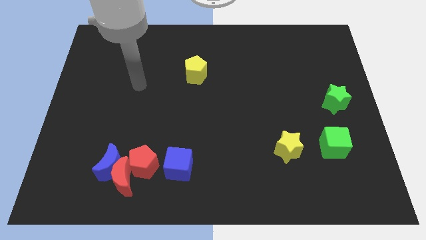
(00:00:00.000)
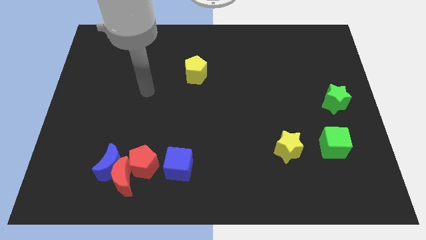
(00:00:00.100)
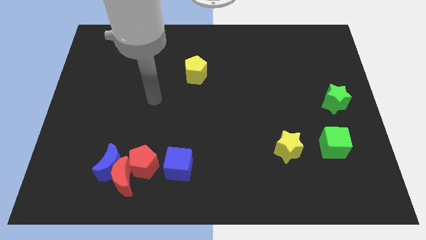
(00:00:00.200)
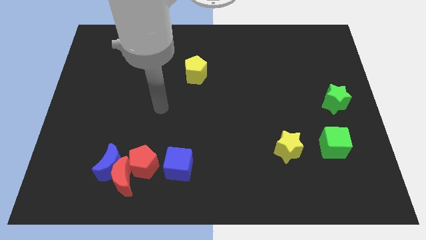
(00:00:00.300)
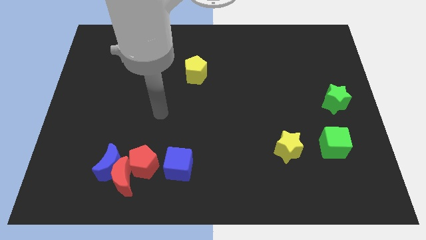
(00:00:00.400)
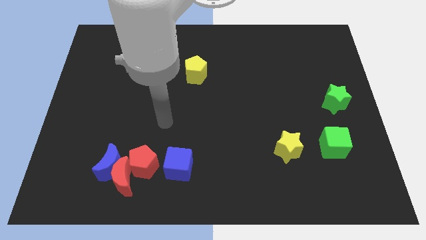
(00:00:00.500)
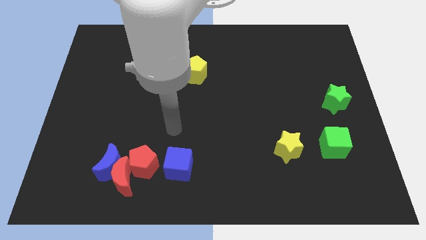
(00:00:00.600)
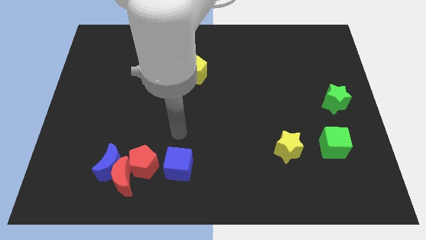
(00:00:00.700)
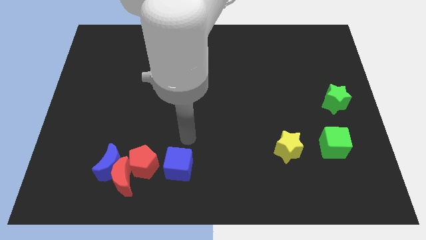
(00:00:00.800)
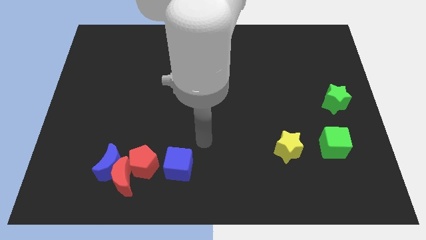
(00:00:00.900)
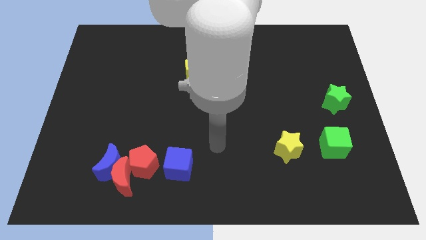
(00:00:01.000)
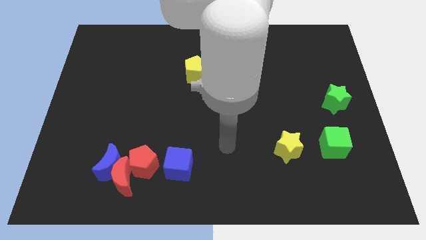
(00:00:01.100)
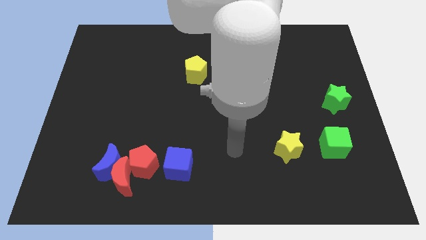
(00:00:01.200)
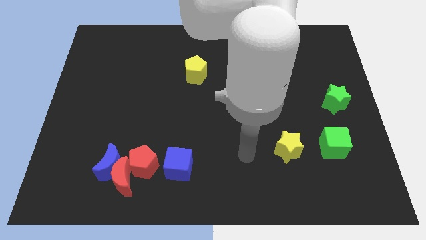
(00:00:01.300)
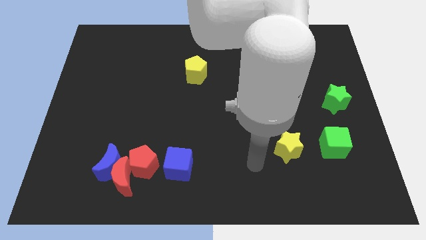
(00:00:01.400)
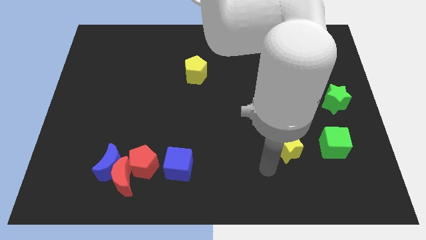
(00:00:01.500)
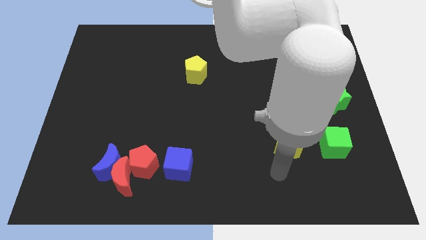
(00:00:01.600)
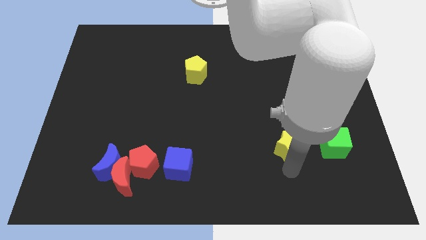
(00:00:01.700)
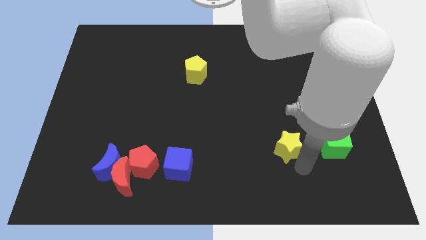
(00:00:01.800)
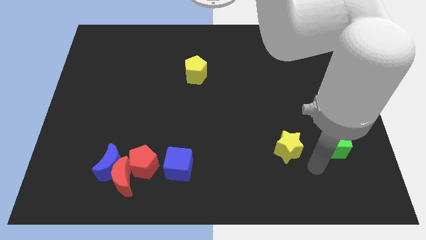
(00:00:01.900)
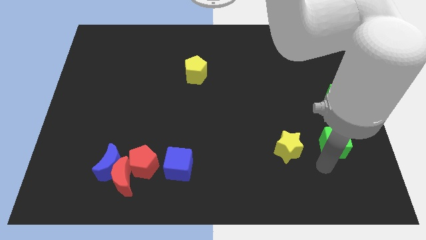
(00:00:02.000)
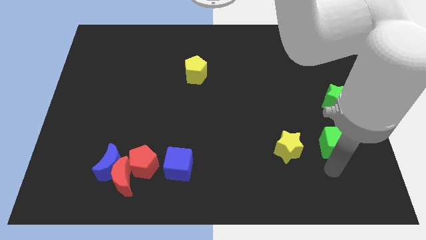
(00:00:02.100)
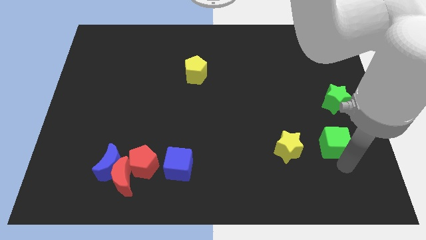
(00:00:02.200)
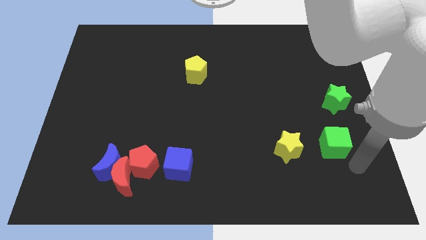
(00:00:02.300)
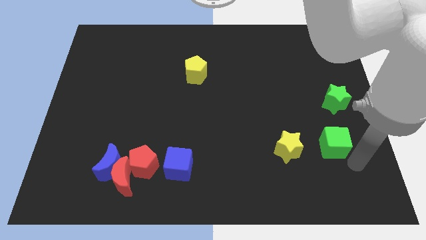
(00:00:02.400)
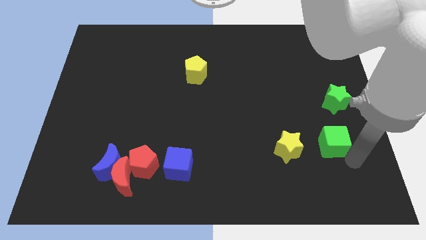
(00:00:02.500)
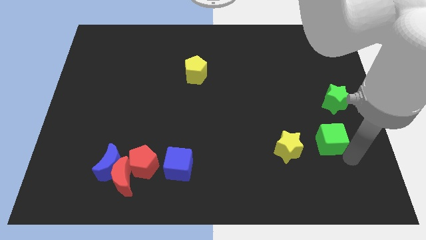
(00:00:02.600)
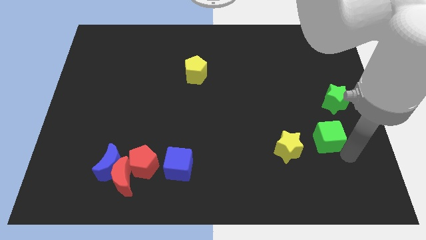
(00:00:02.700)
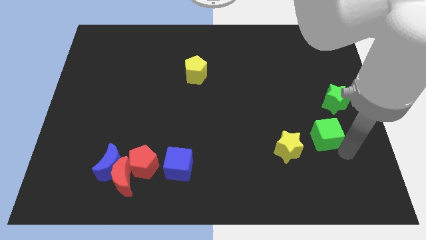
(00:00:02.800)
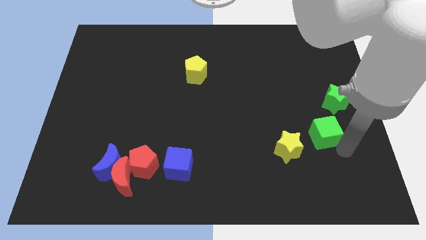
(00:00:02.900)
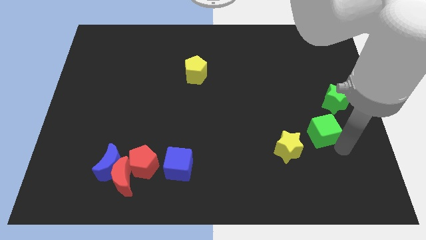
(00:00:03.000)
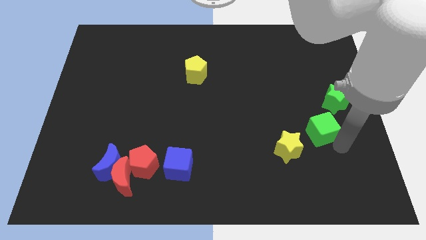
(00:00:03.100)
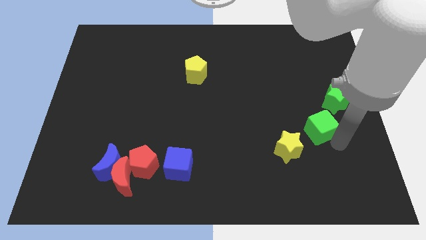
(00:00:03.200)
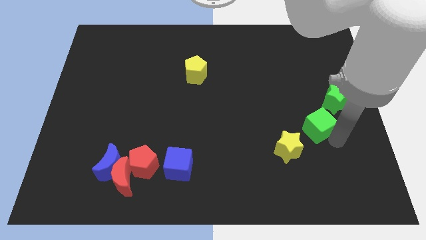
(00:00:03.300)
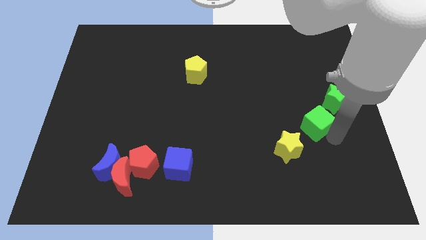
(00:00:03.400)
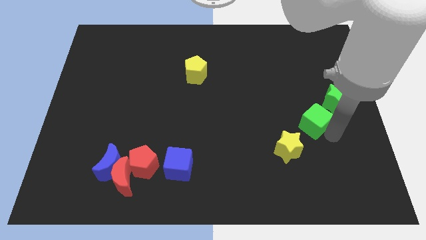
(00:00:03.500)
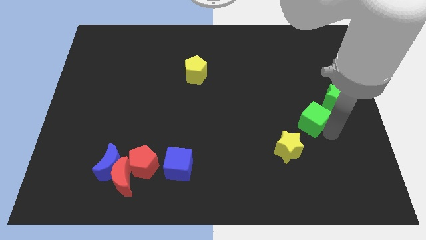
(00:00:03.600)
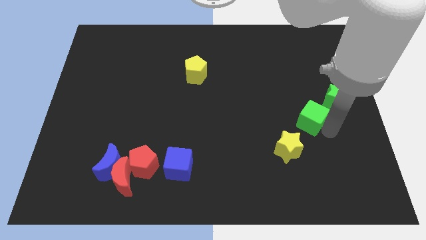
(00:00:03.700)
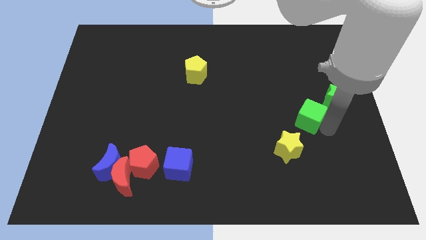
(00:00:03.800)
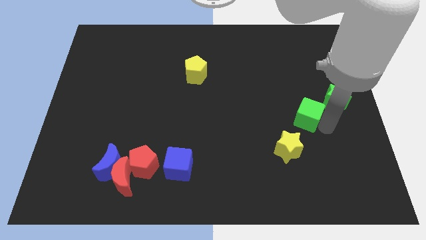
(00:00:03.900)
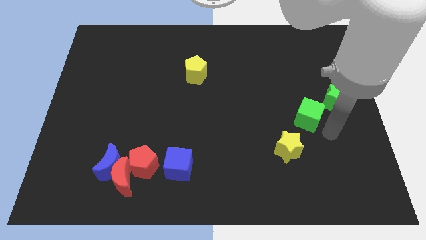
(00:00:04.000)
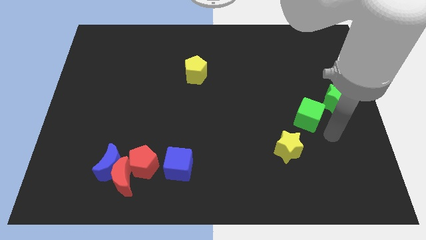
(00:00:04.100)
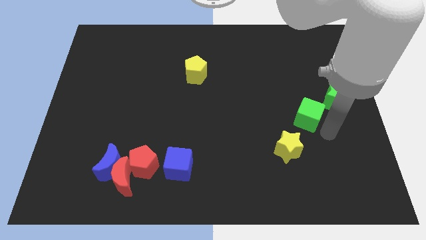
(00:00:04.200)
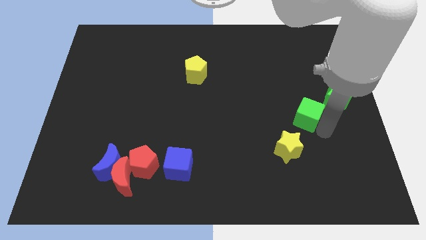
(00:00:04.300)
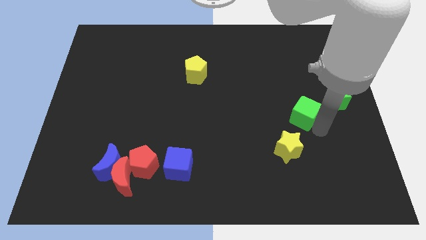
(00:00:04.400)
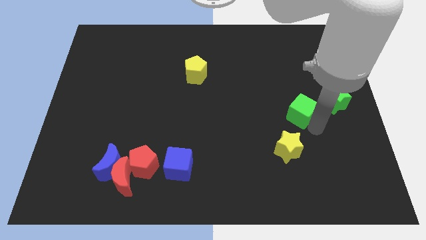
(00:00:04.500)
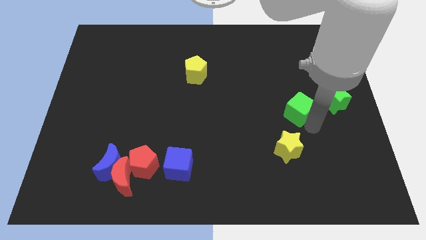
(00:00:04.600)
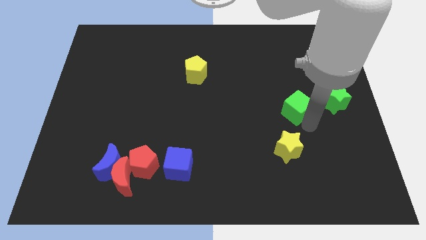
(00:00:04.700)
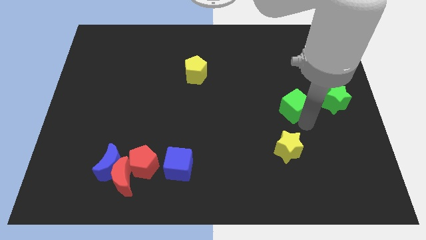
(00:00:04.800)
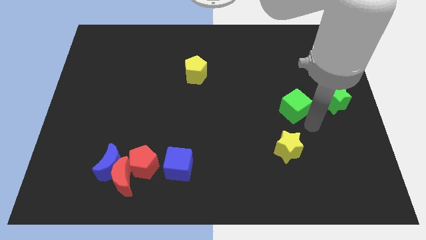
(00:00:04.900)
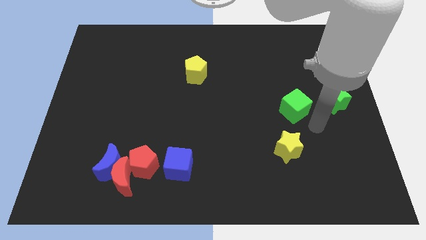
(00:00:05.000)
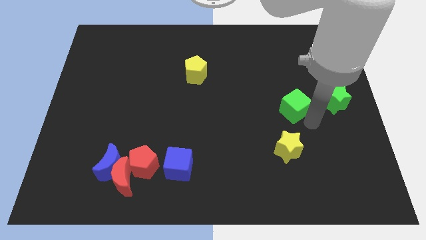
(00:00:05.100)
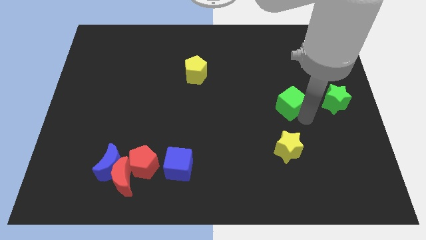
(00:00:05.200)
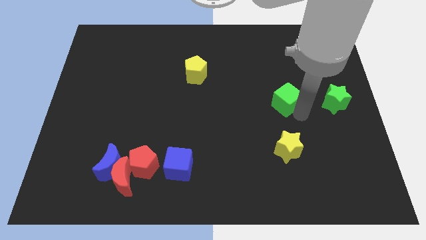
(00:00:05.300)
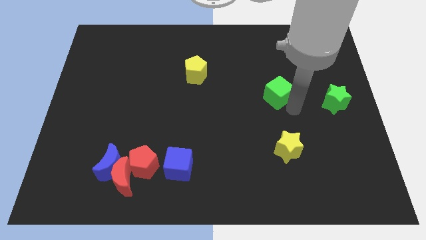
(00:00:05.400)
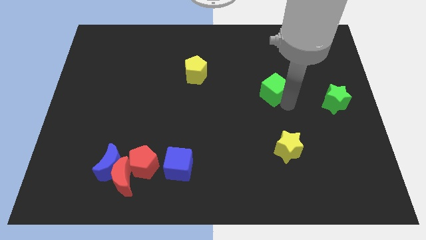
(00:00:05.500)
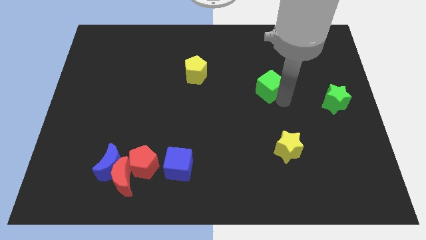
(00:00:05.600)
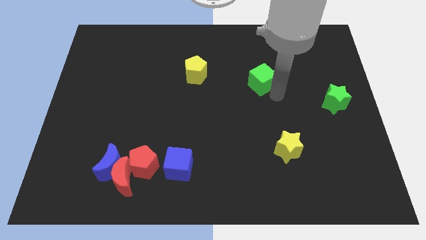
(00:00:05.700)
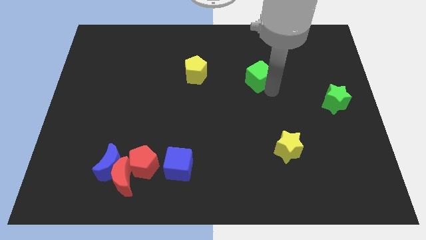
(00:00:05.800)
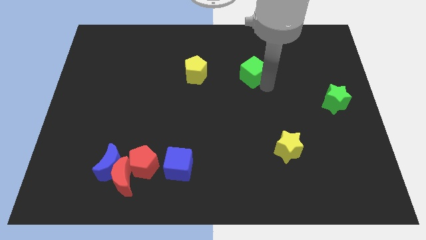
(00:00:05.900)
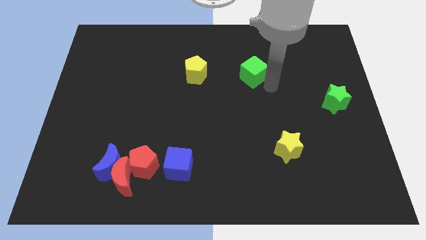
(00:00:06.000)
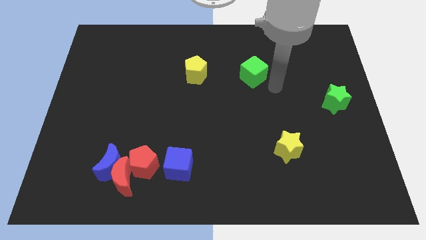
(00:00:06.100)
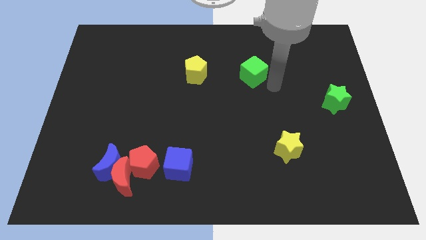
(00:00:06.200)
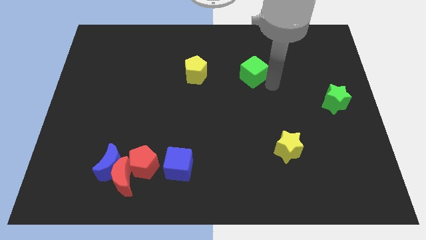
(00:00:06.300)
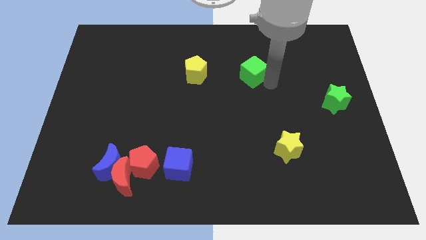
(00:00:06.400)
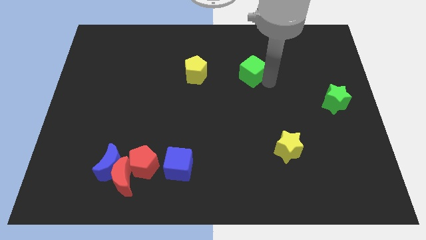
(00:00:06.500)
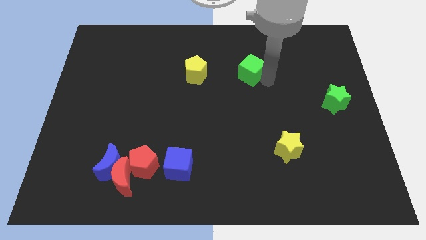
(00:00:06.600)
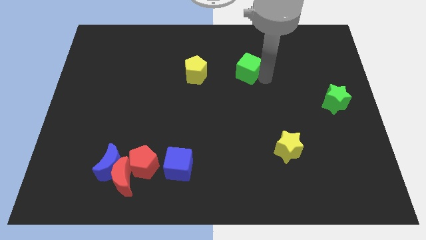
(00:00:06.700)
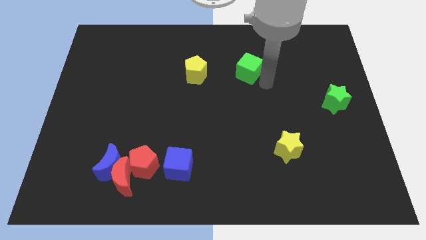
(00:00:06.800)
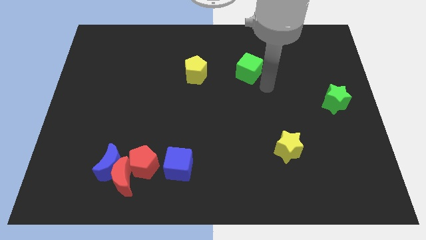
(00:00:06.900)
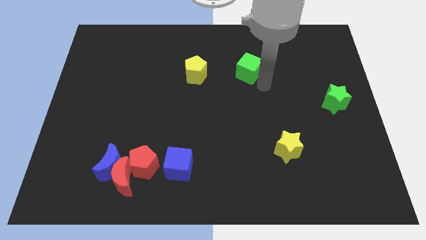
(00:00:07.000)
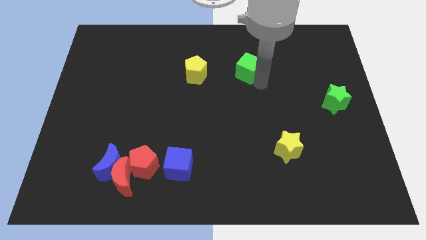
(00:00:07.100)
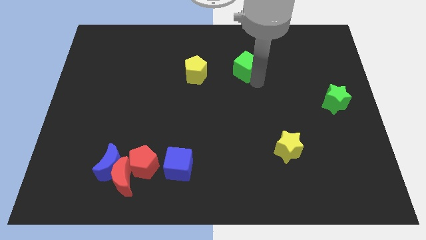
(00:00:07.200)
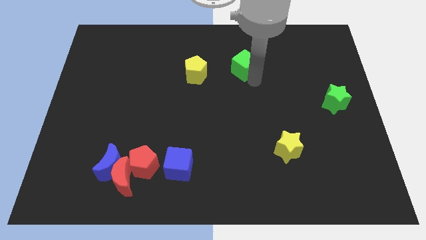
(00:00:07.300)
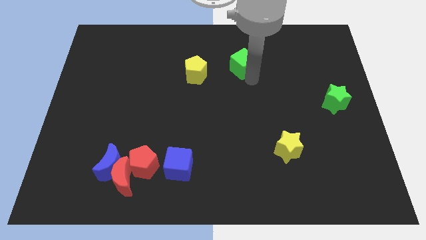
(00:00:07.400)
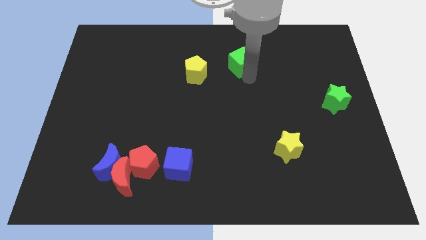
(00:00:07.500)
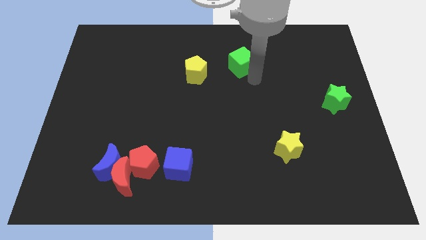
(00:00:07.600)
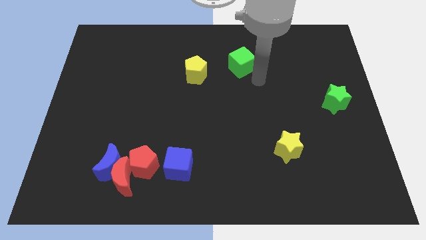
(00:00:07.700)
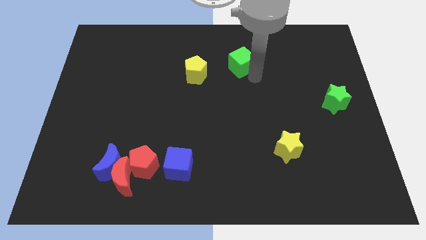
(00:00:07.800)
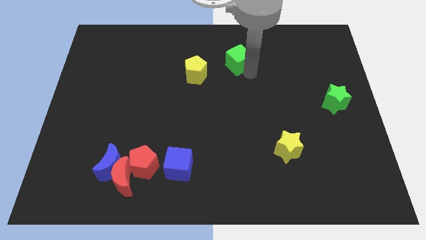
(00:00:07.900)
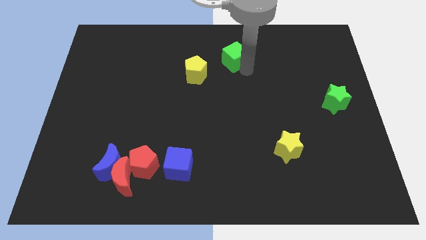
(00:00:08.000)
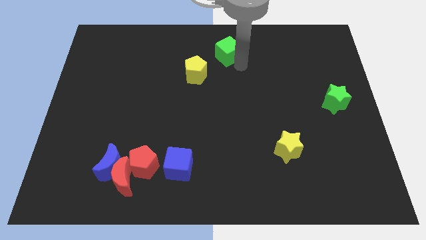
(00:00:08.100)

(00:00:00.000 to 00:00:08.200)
push the green cube to the top side
